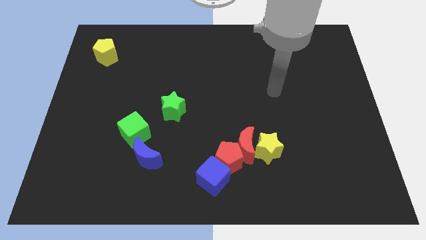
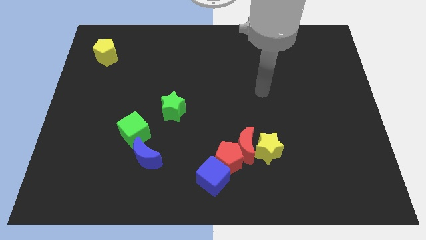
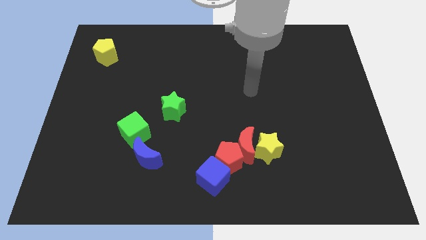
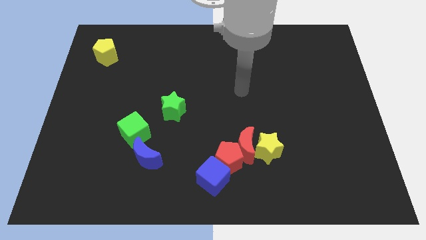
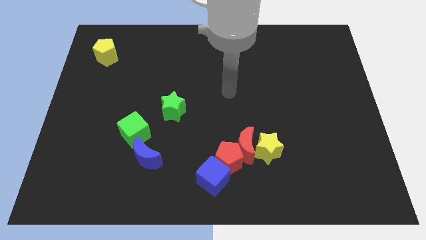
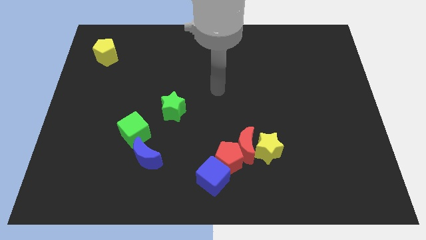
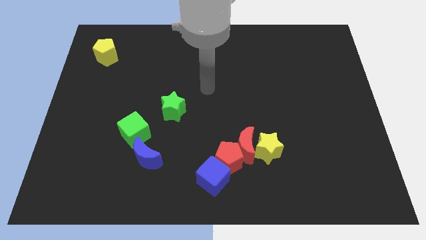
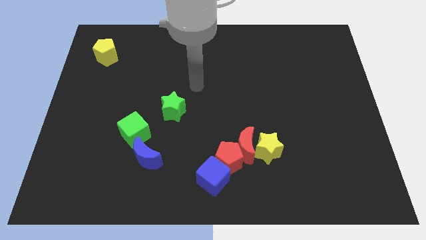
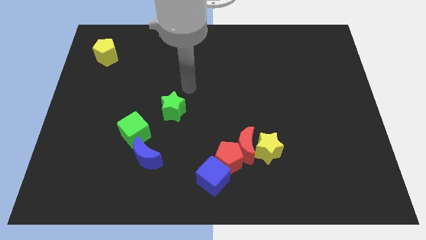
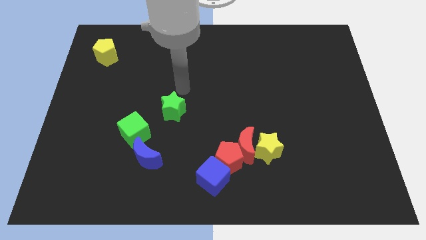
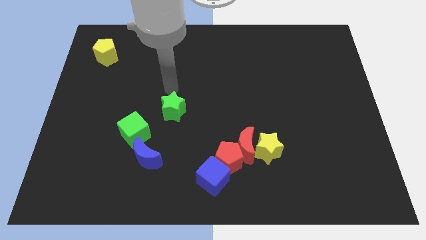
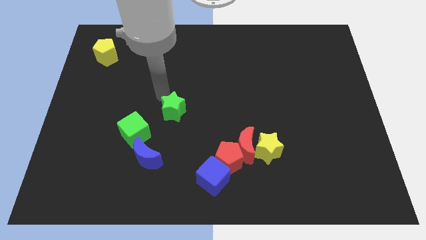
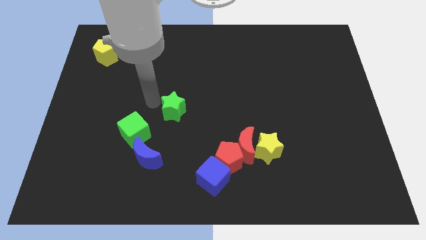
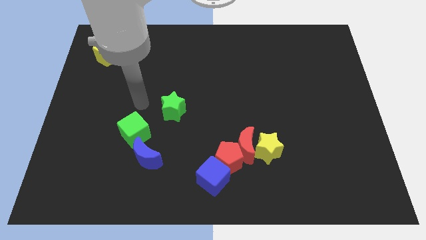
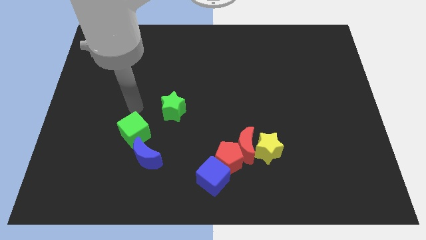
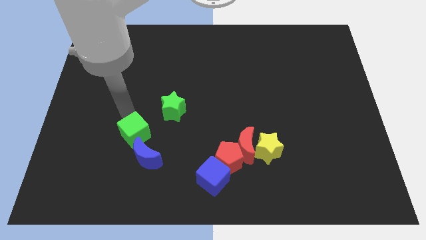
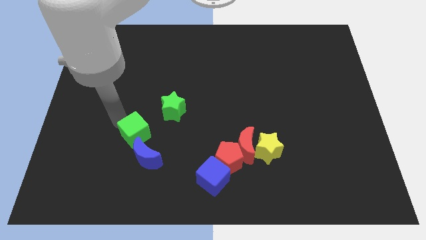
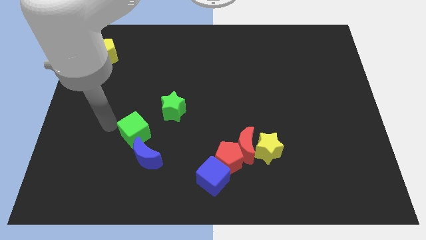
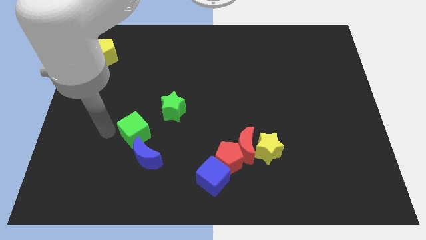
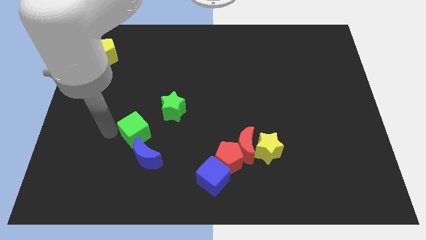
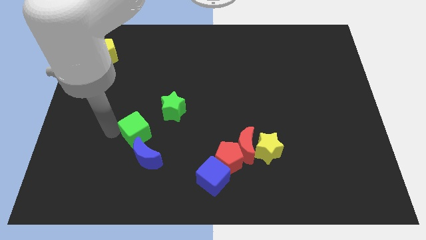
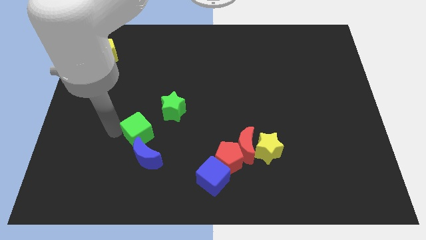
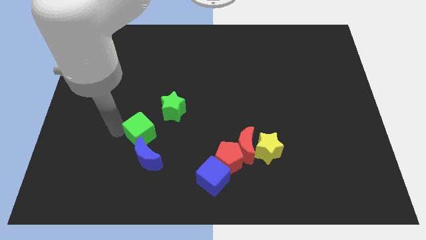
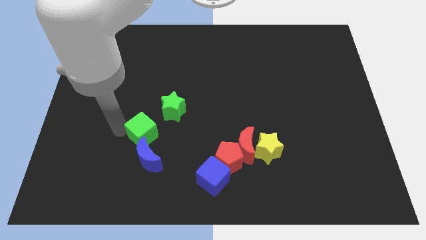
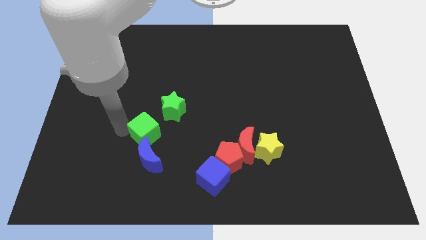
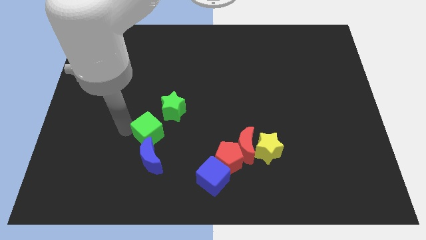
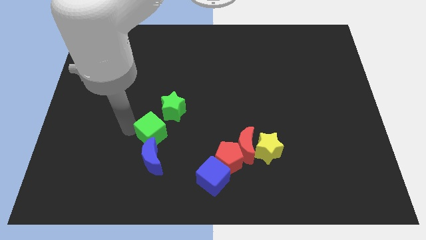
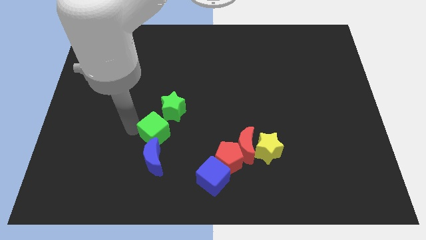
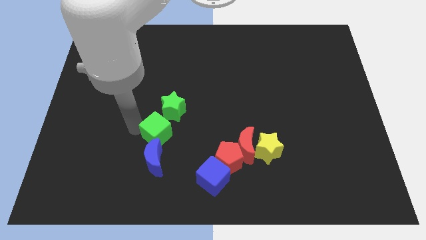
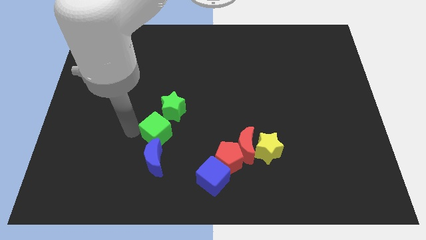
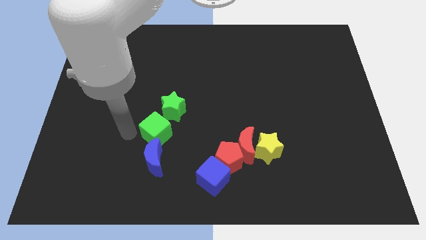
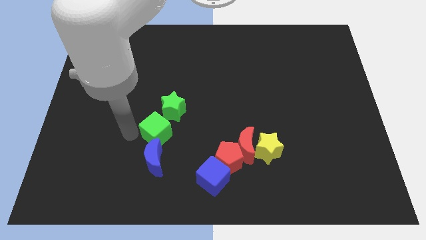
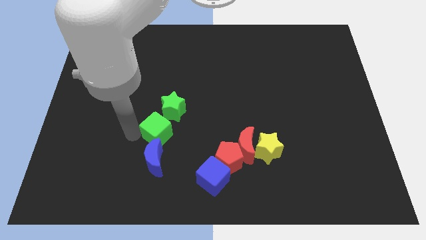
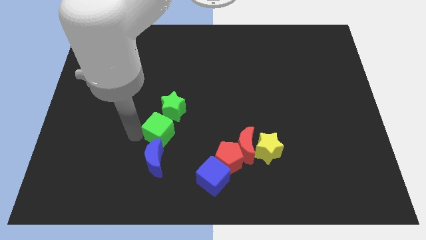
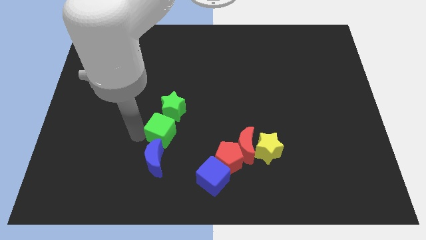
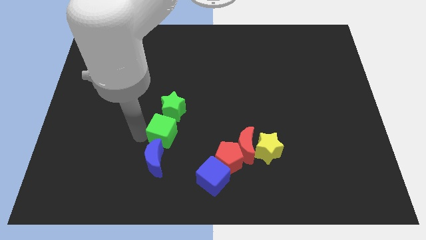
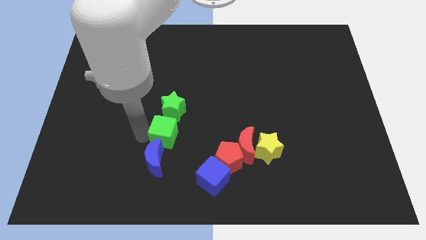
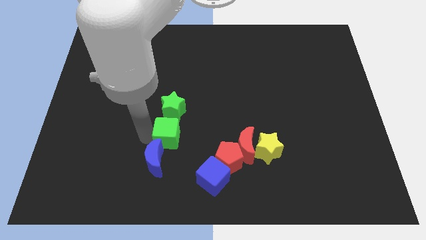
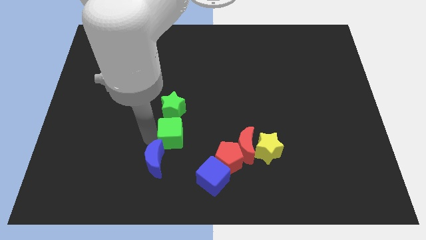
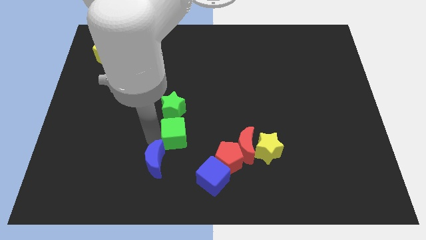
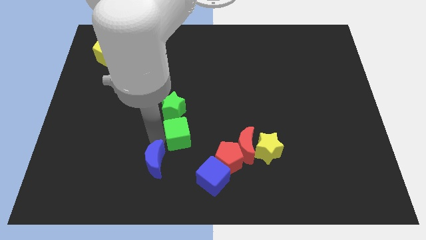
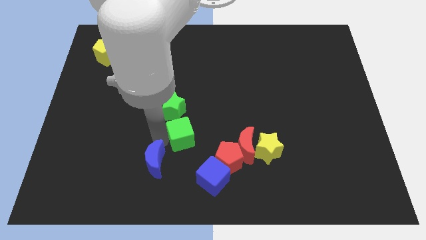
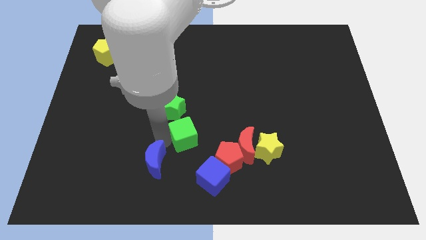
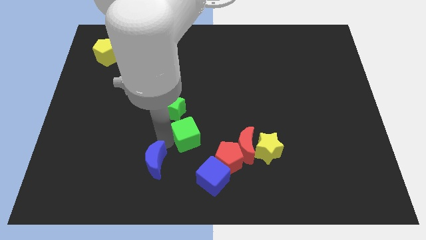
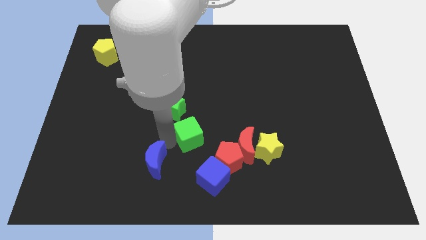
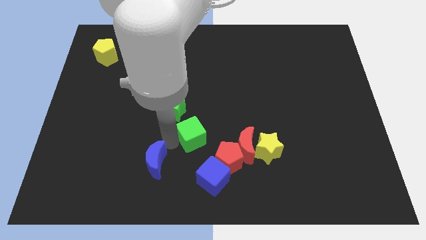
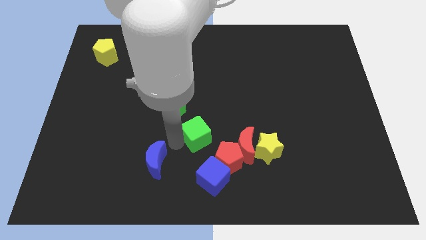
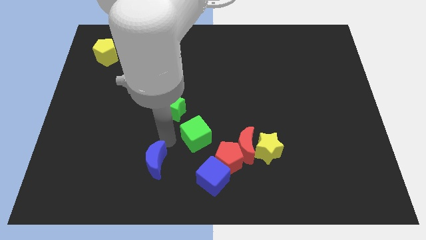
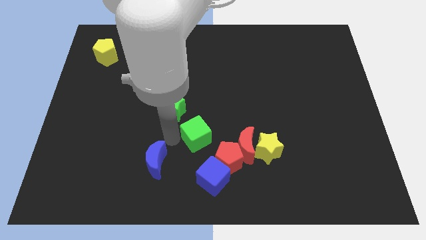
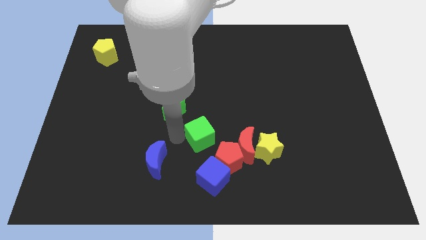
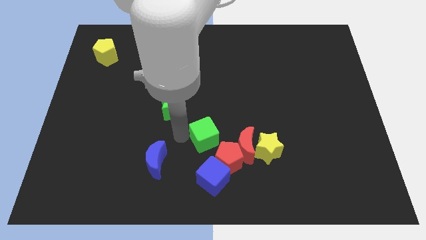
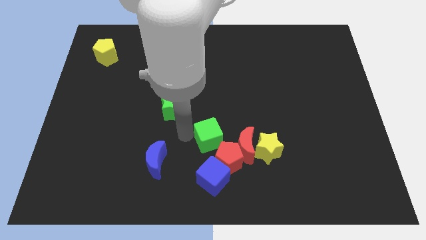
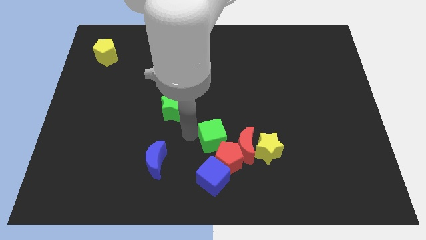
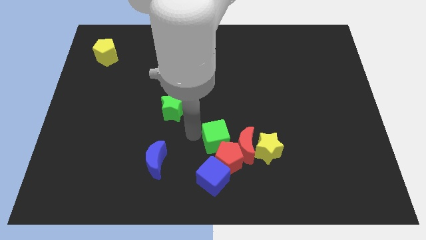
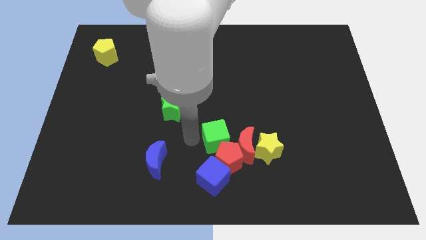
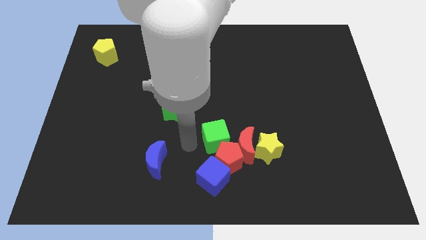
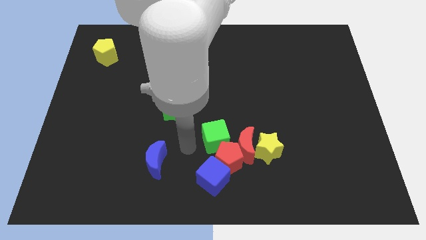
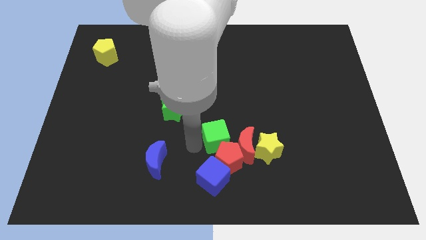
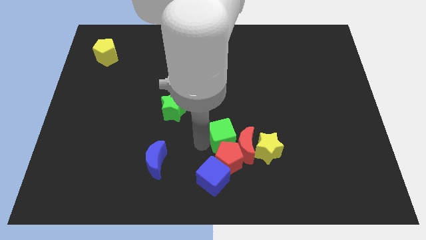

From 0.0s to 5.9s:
slide the green cube diagonally up and to the left of the yellow star

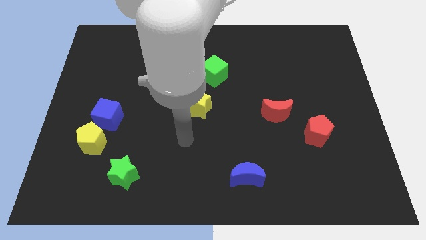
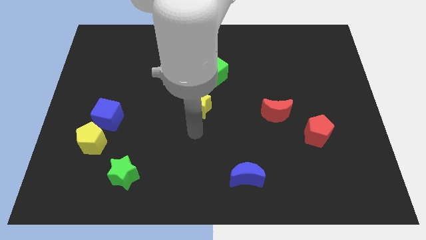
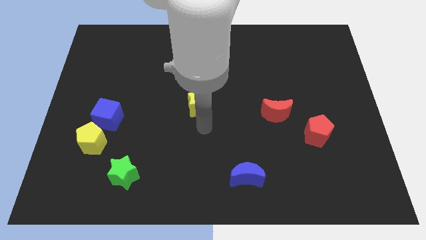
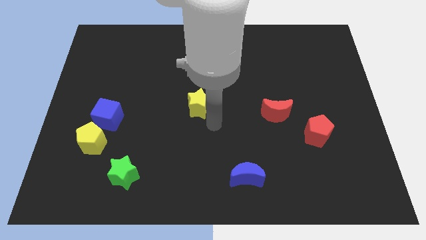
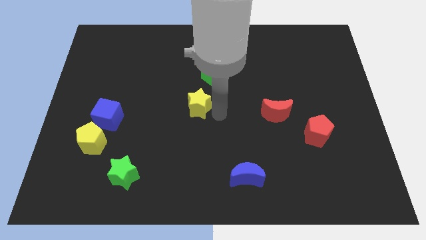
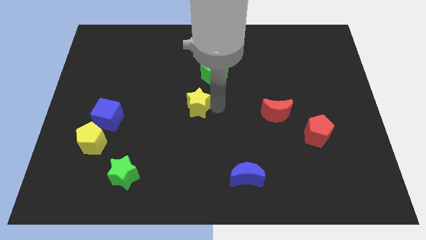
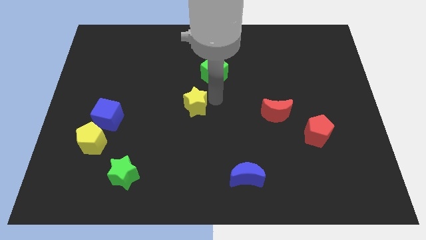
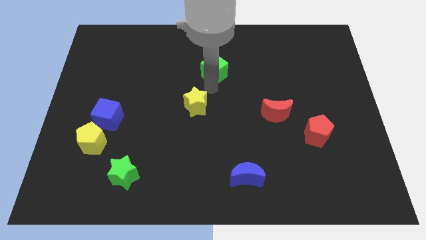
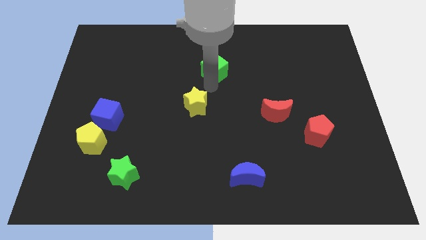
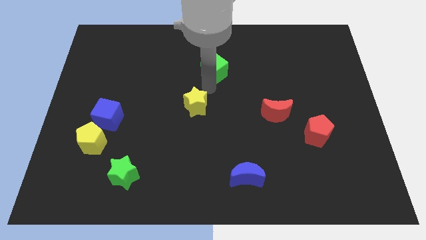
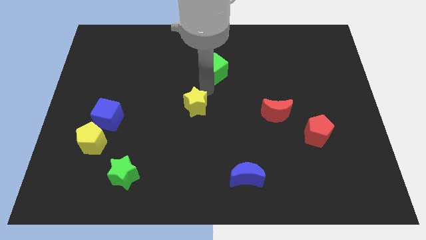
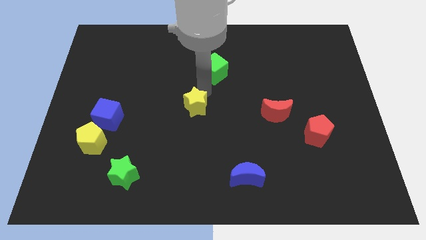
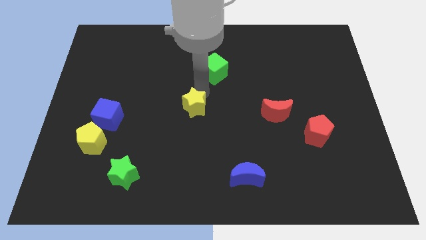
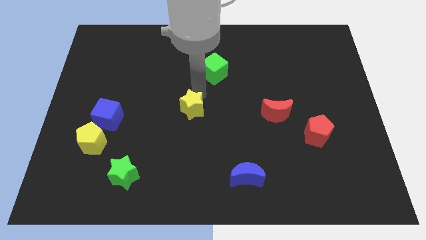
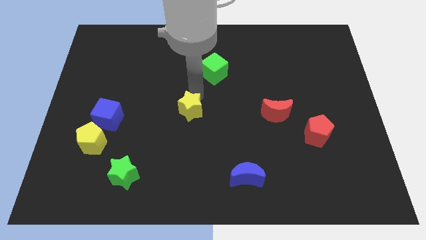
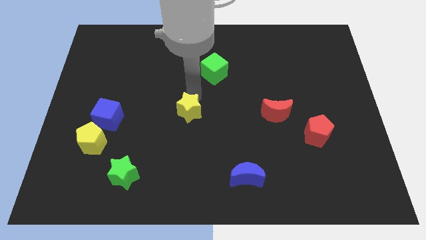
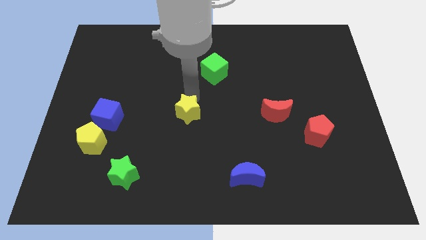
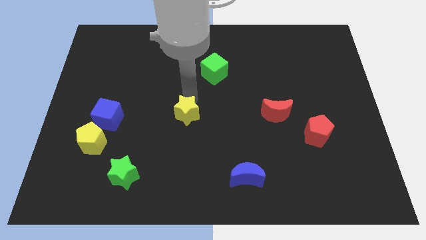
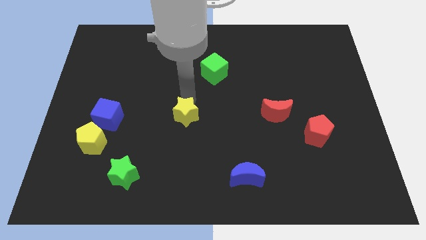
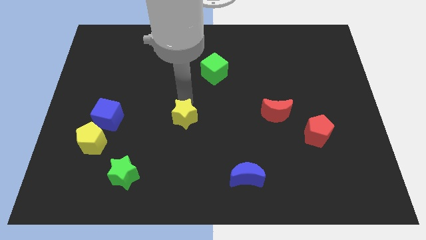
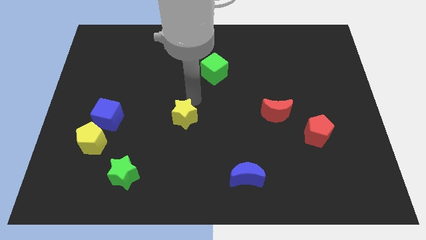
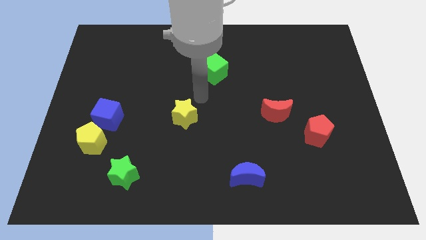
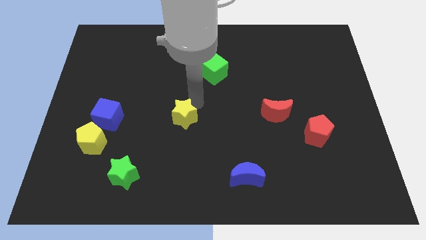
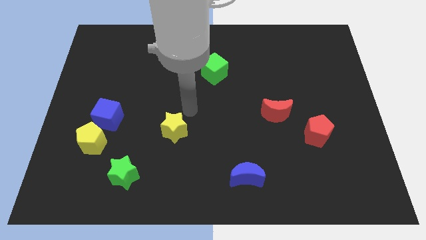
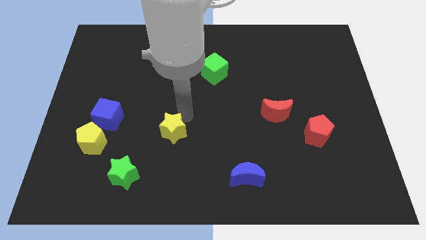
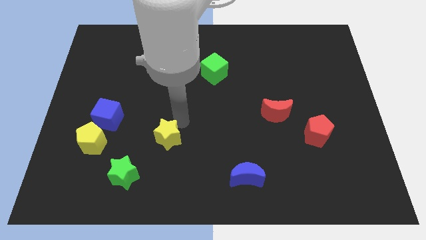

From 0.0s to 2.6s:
move the yellow star to the top right side of the green star

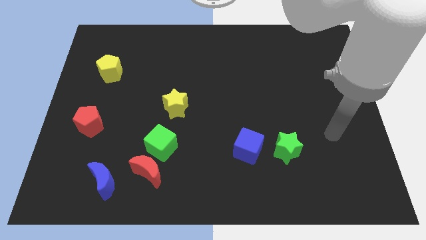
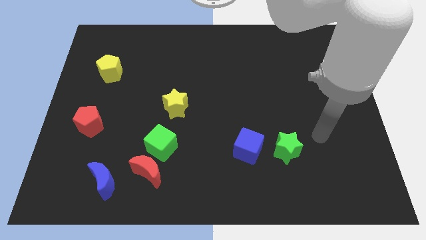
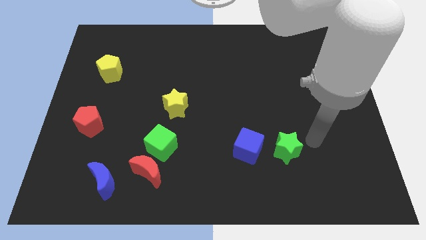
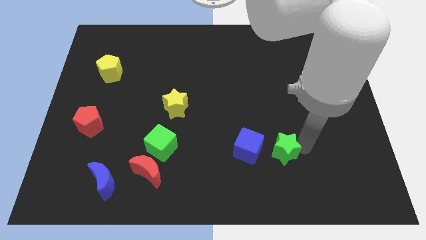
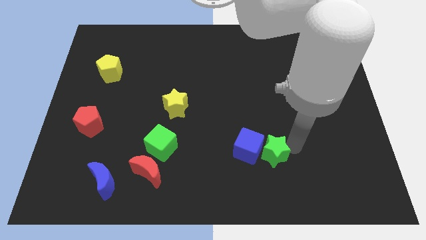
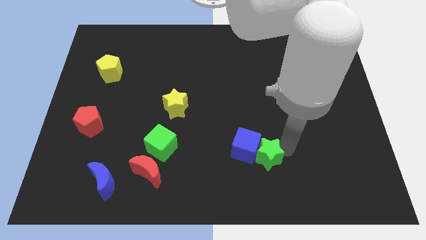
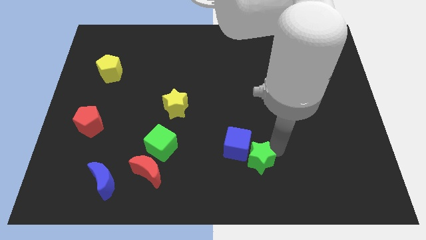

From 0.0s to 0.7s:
move the blue cube to the right side of the green cube
